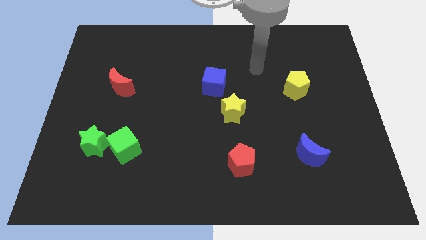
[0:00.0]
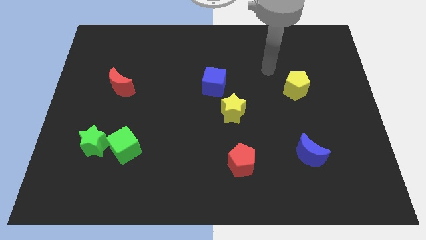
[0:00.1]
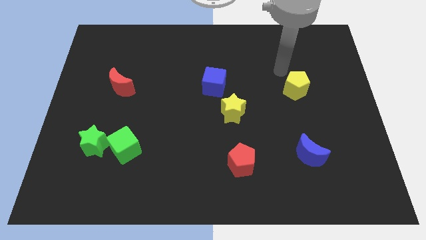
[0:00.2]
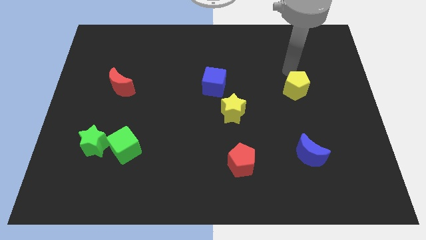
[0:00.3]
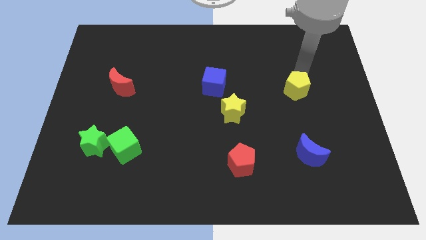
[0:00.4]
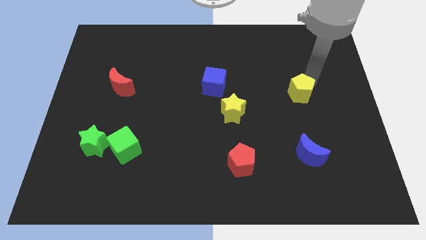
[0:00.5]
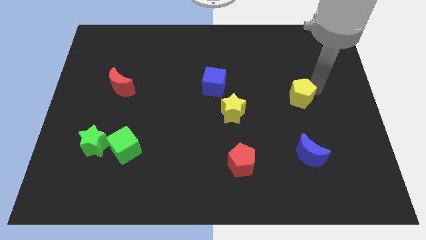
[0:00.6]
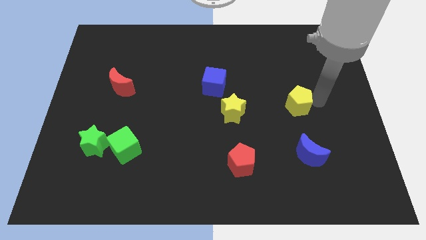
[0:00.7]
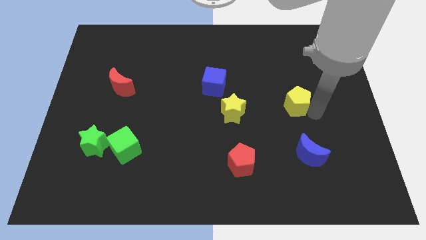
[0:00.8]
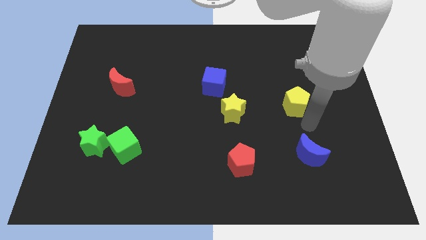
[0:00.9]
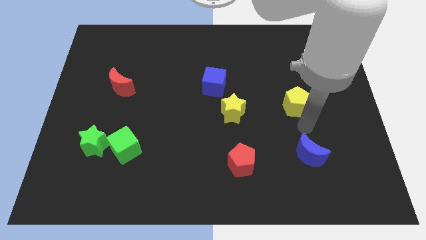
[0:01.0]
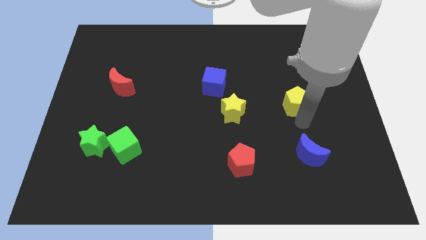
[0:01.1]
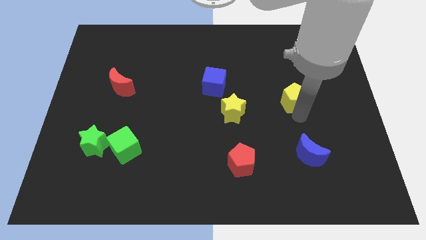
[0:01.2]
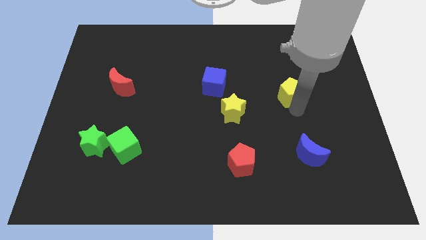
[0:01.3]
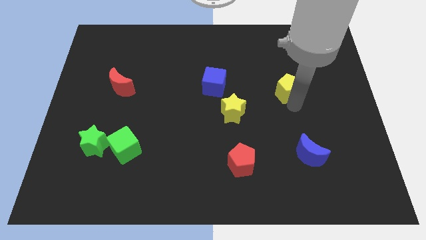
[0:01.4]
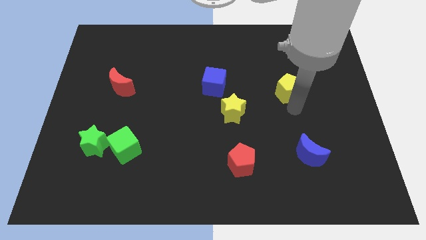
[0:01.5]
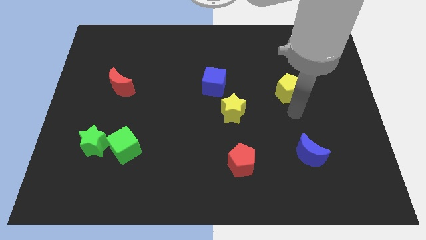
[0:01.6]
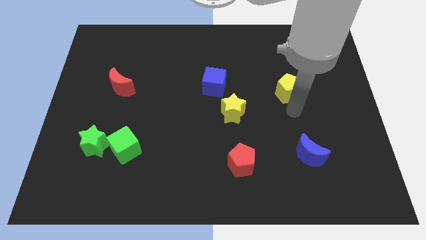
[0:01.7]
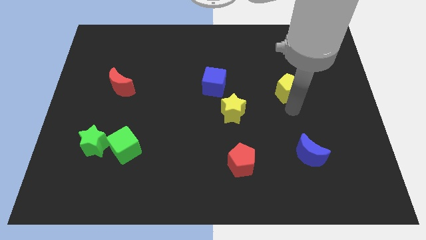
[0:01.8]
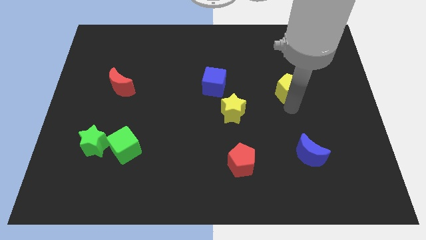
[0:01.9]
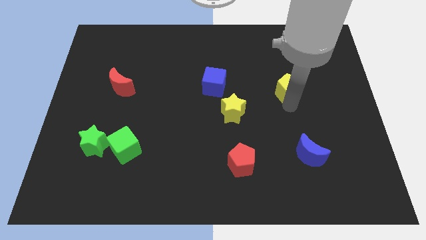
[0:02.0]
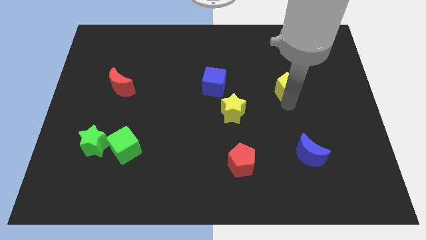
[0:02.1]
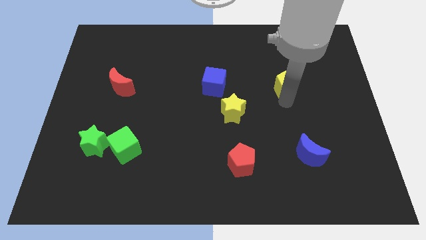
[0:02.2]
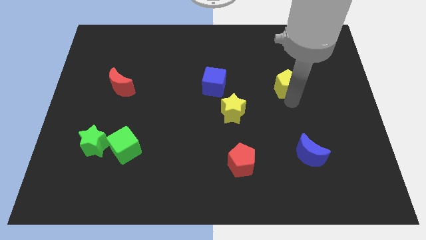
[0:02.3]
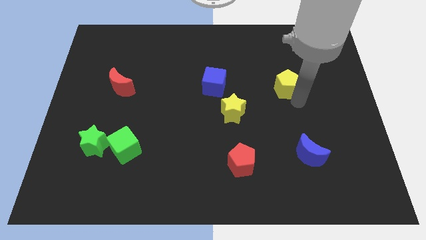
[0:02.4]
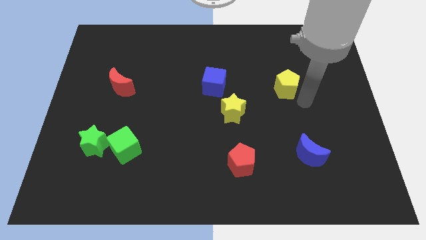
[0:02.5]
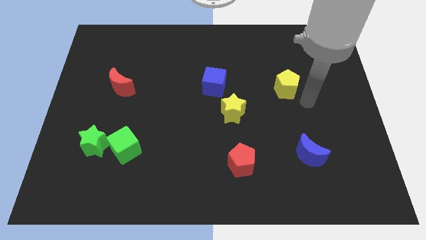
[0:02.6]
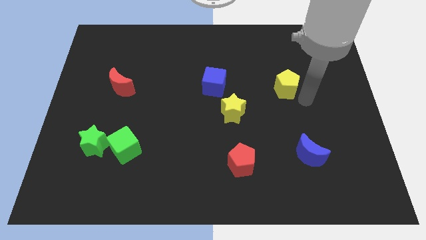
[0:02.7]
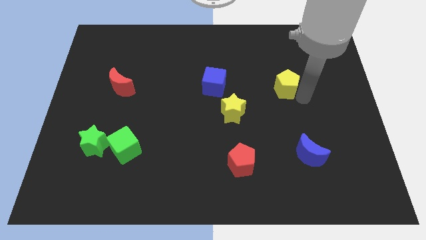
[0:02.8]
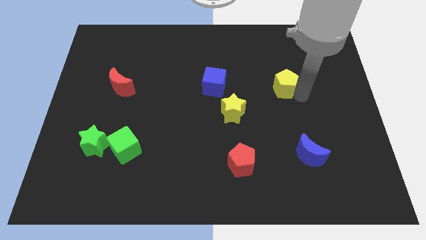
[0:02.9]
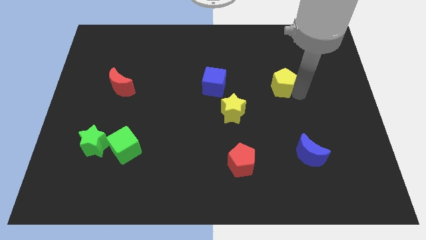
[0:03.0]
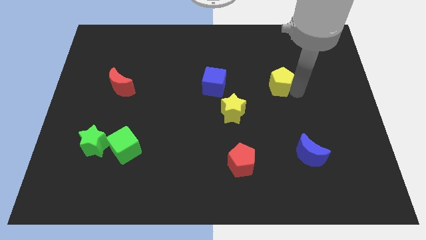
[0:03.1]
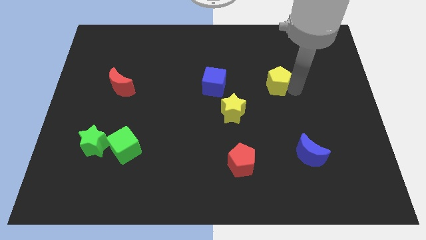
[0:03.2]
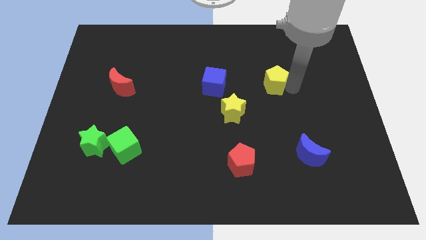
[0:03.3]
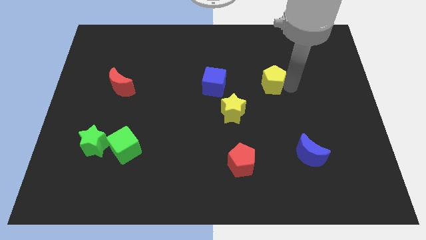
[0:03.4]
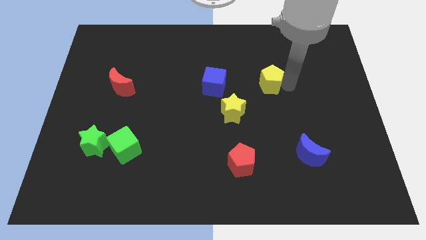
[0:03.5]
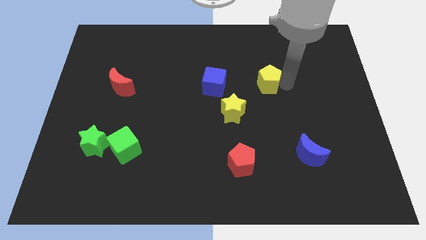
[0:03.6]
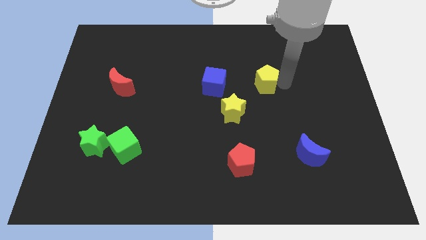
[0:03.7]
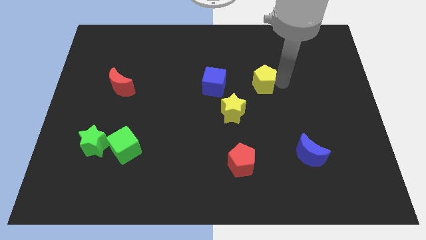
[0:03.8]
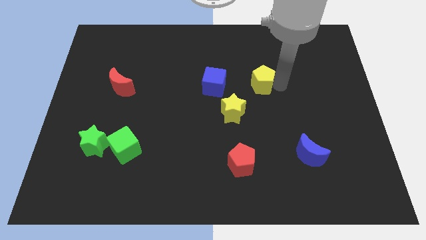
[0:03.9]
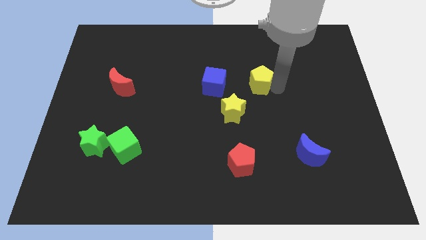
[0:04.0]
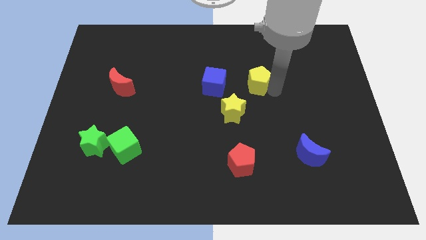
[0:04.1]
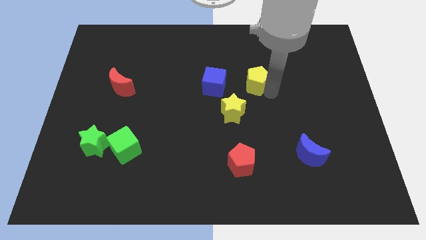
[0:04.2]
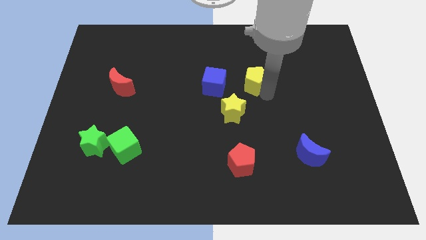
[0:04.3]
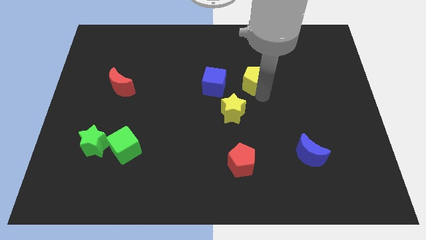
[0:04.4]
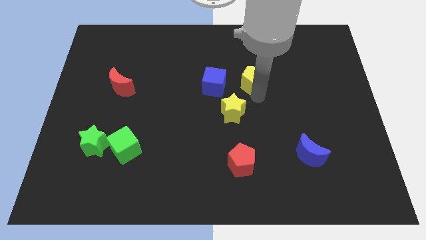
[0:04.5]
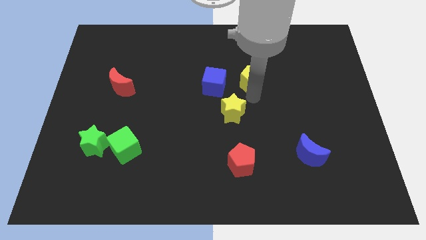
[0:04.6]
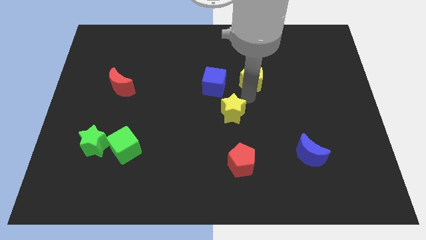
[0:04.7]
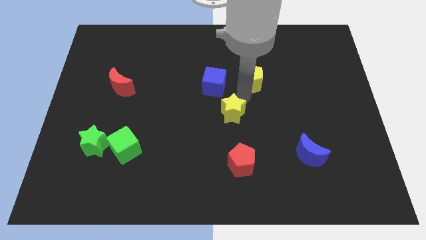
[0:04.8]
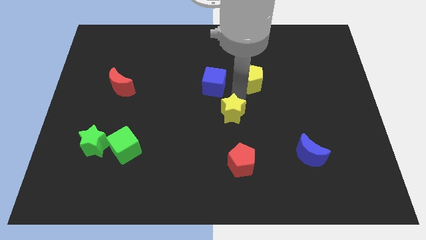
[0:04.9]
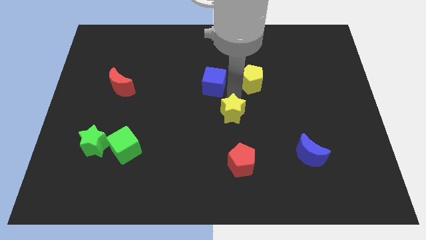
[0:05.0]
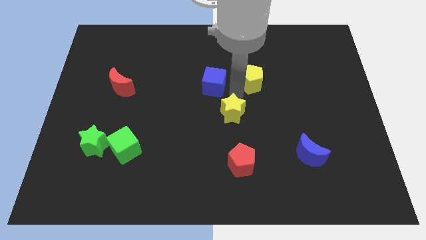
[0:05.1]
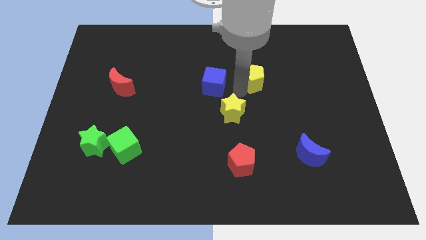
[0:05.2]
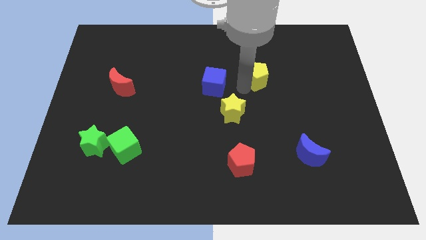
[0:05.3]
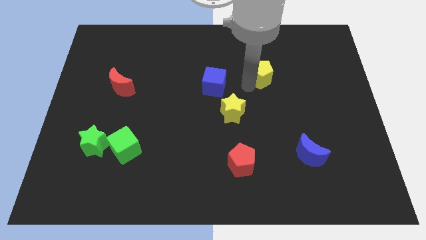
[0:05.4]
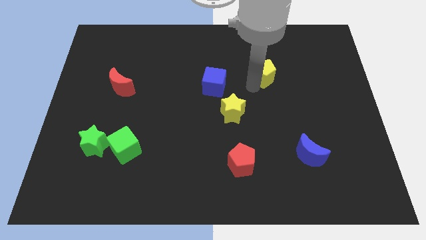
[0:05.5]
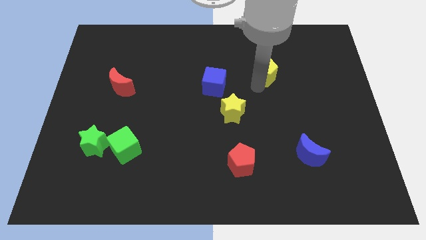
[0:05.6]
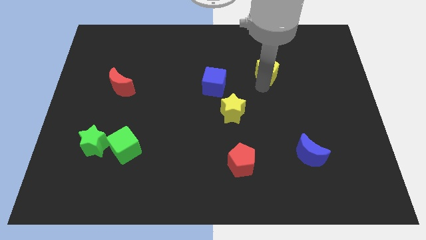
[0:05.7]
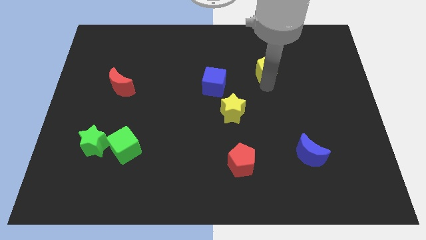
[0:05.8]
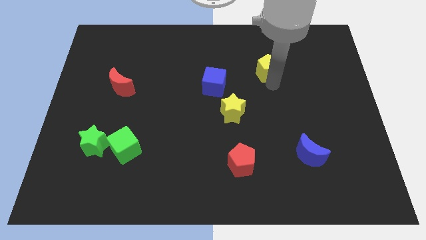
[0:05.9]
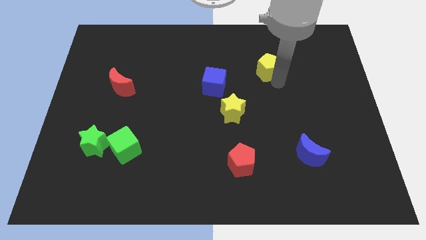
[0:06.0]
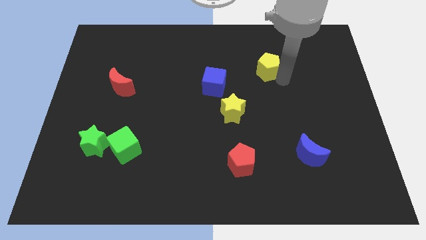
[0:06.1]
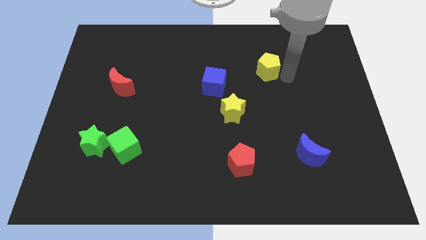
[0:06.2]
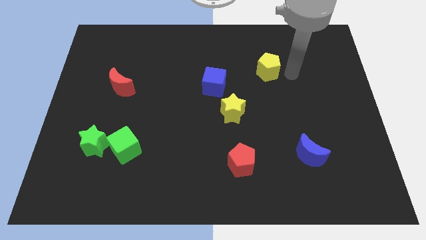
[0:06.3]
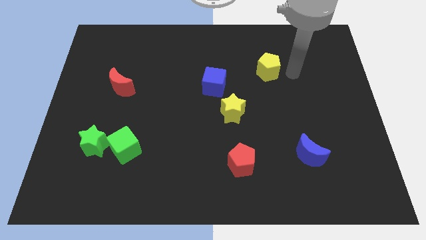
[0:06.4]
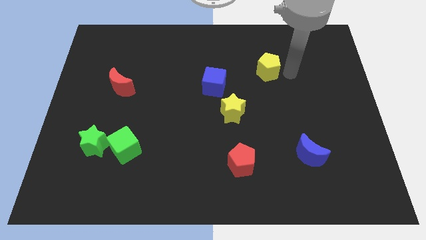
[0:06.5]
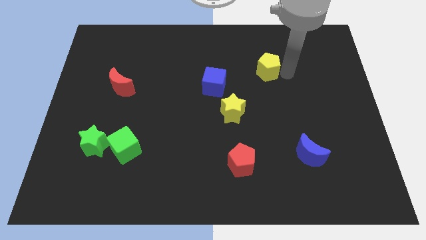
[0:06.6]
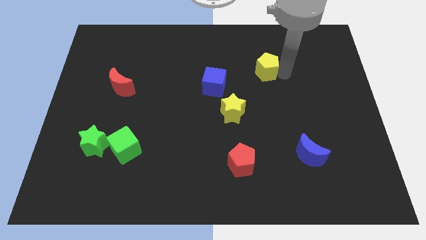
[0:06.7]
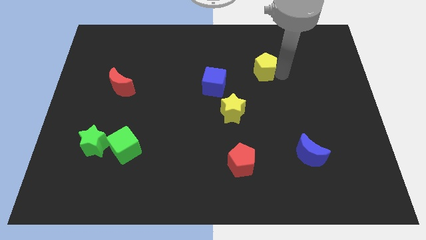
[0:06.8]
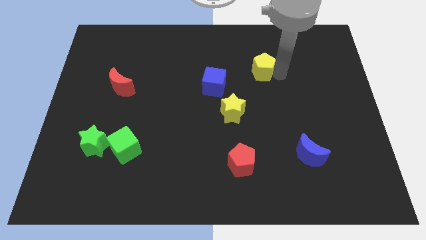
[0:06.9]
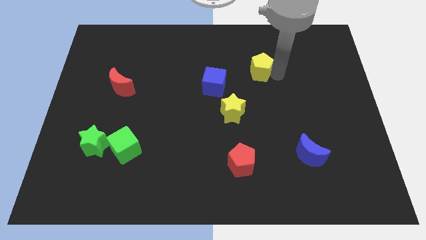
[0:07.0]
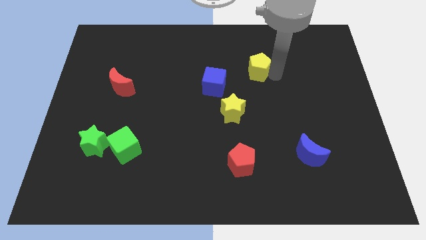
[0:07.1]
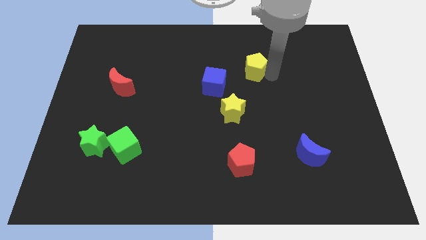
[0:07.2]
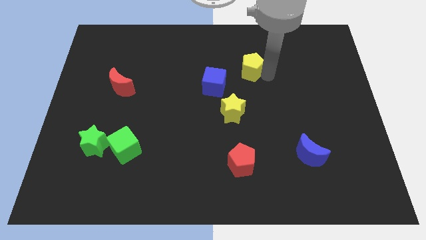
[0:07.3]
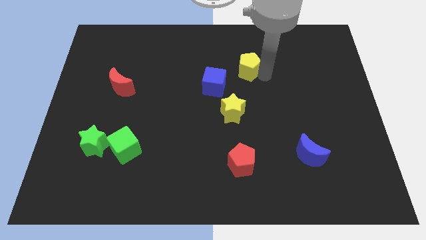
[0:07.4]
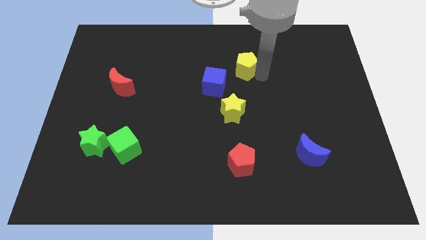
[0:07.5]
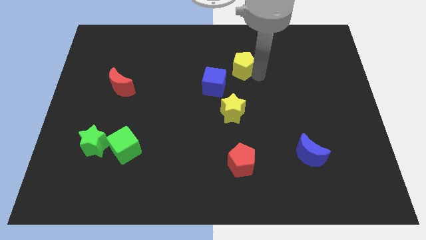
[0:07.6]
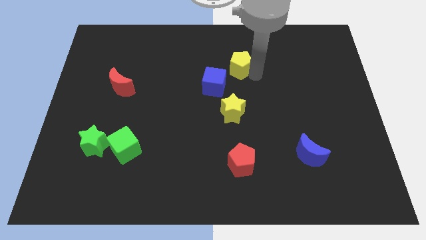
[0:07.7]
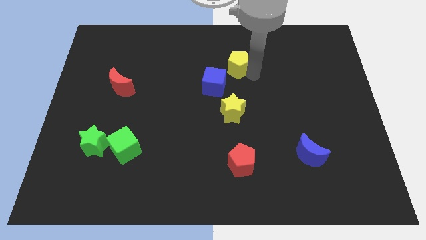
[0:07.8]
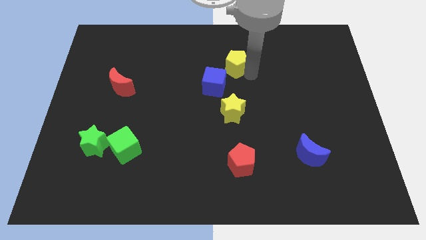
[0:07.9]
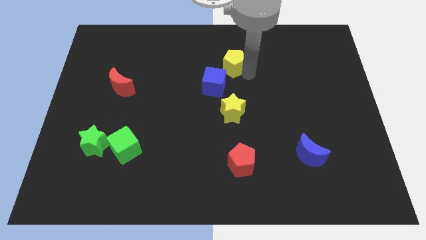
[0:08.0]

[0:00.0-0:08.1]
move the yellow pentagon to the top of the blue cube
